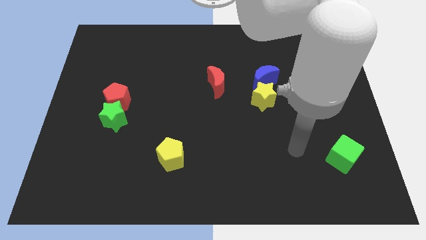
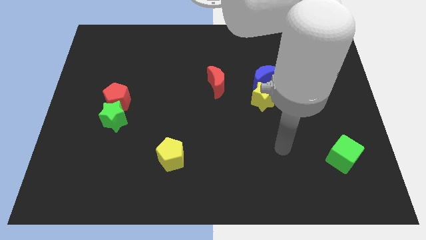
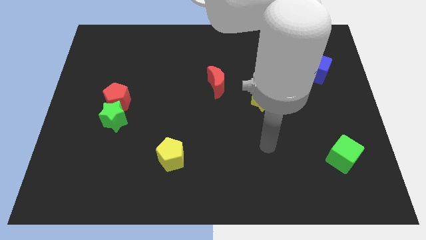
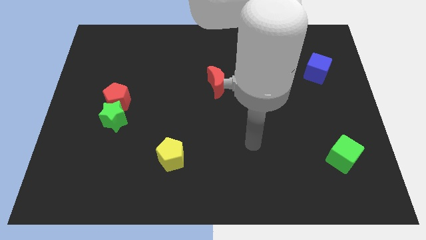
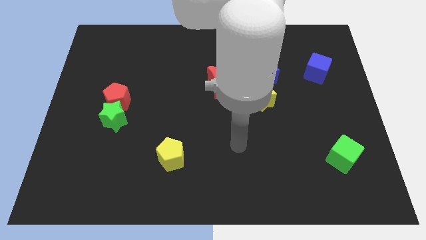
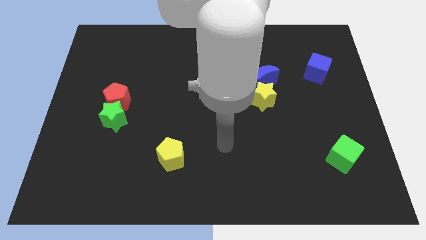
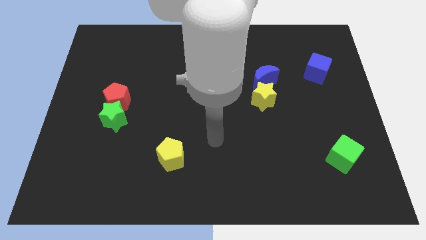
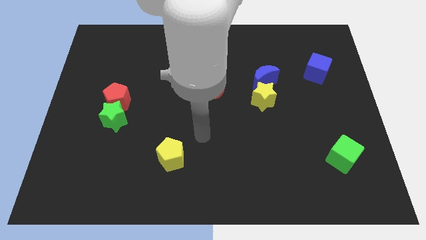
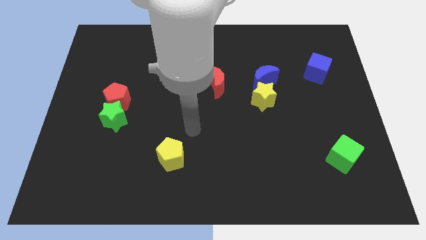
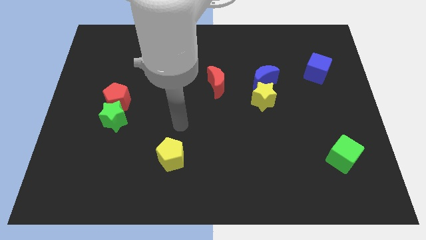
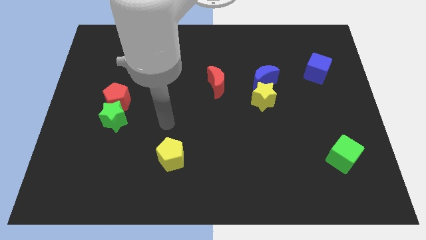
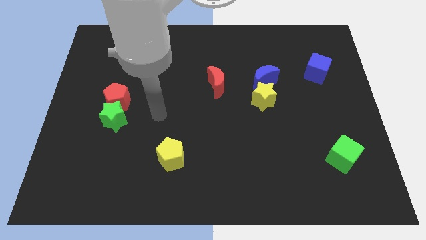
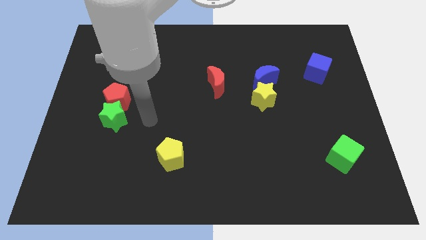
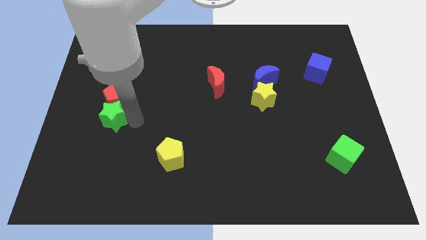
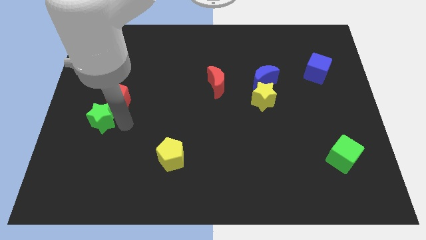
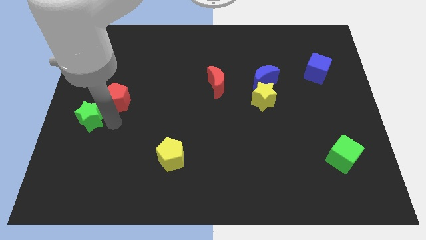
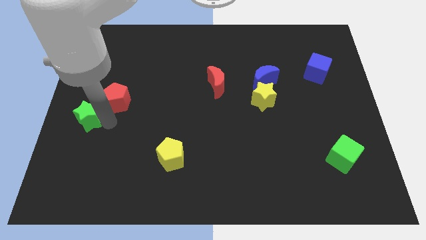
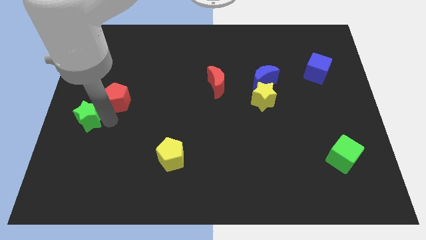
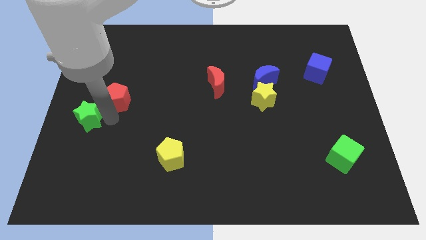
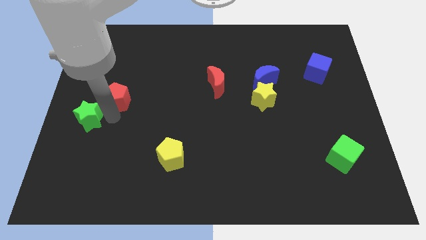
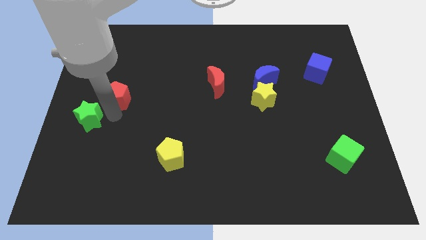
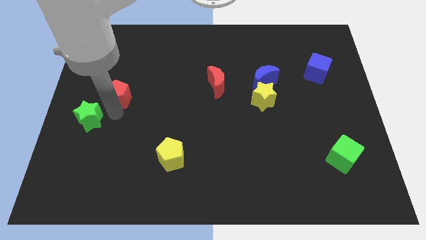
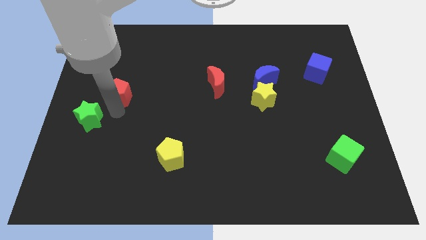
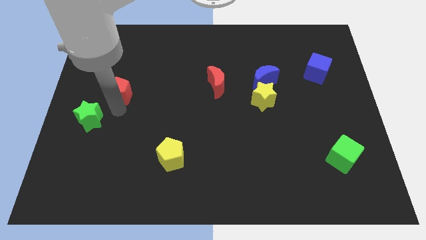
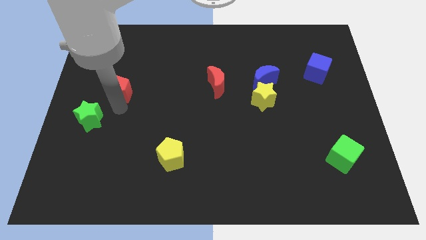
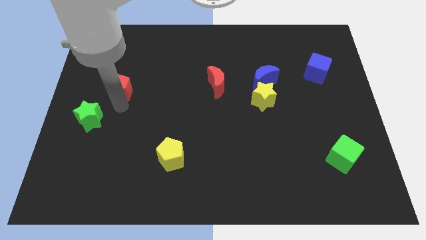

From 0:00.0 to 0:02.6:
move the red pentagon away from the green star

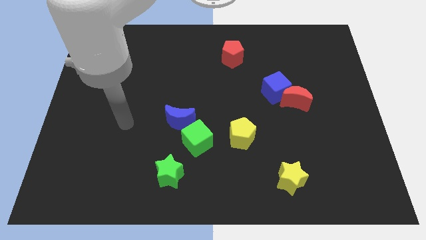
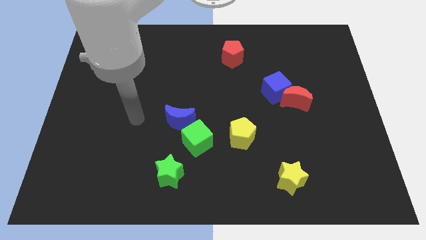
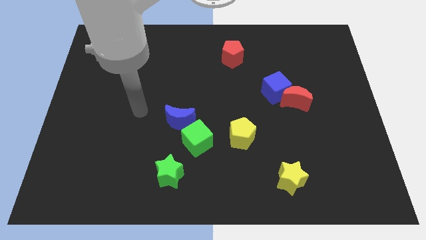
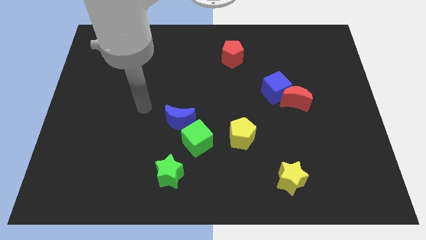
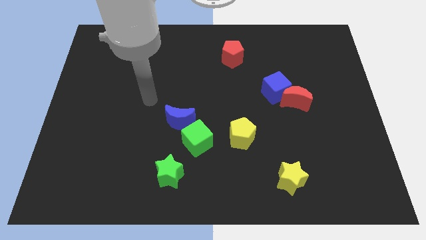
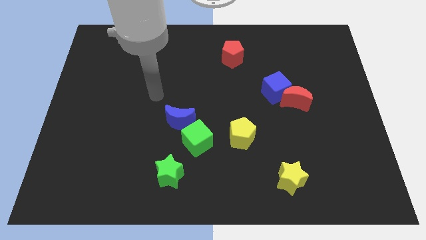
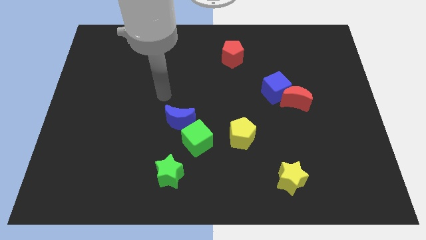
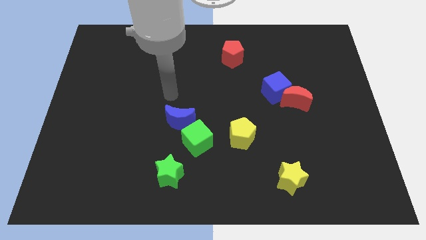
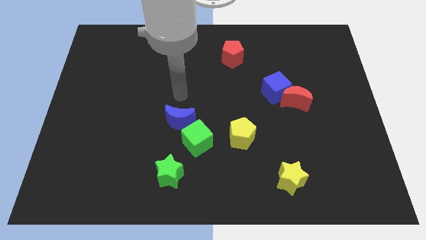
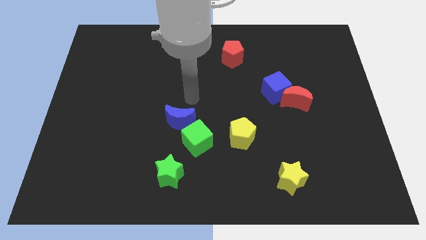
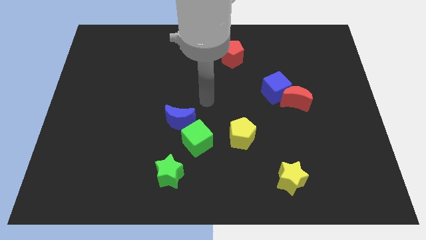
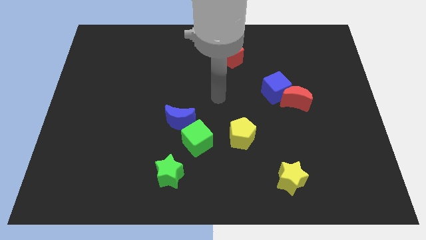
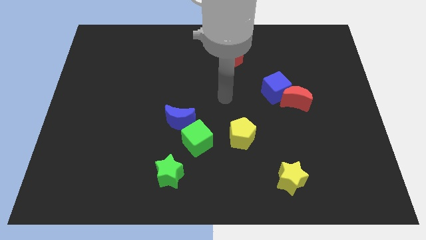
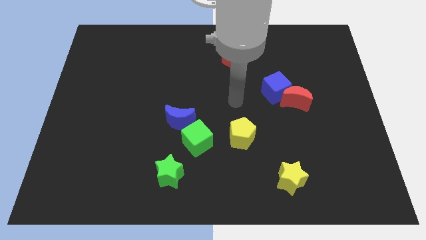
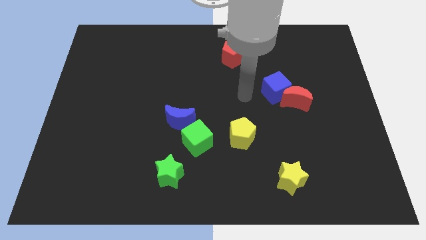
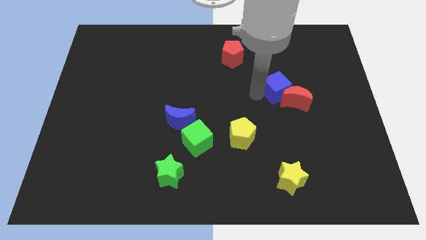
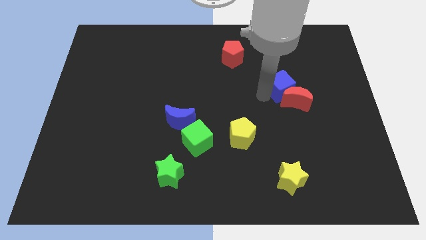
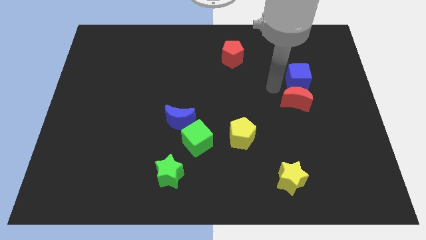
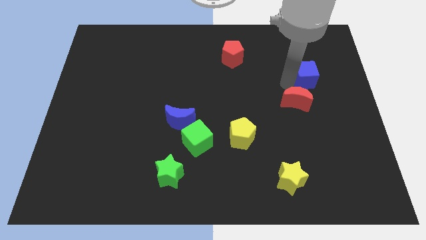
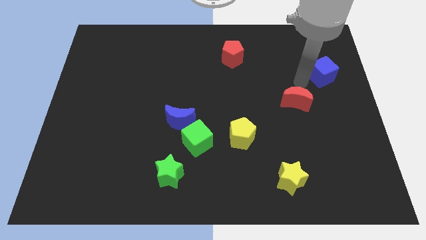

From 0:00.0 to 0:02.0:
separate the red moon from the blue cube

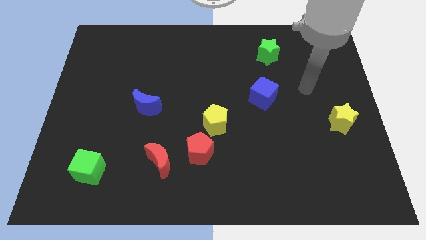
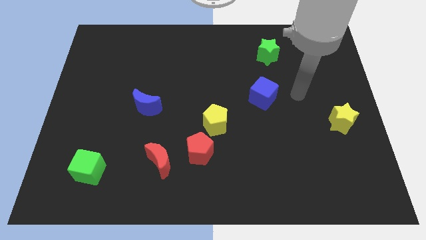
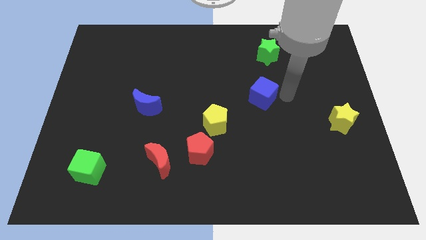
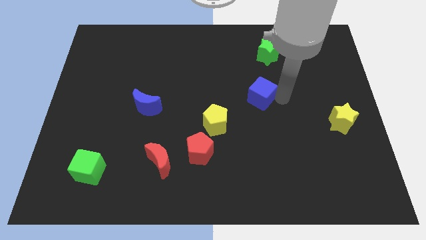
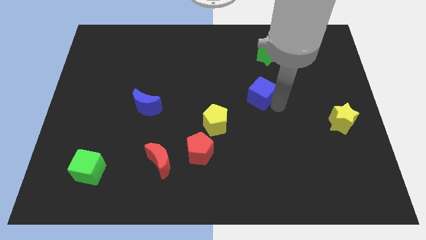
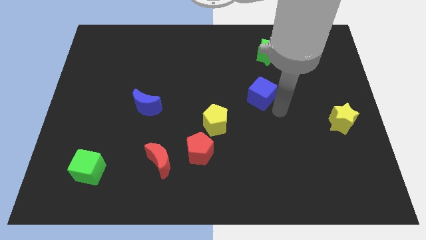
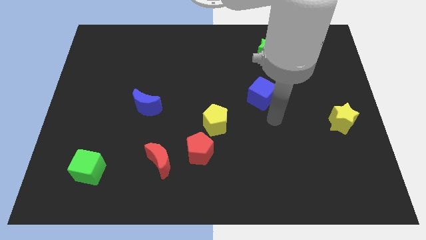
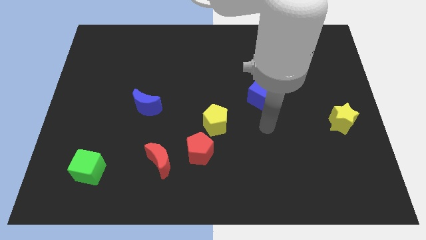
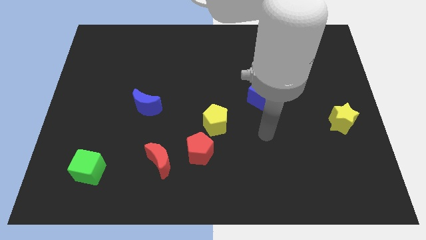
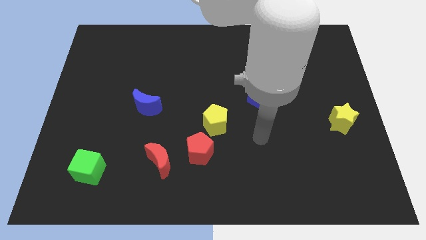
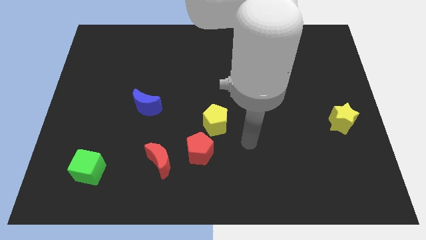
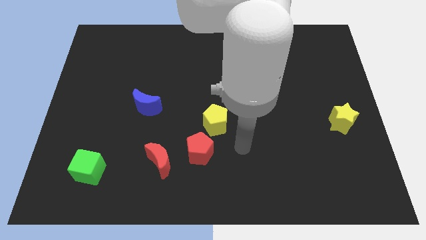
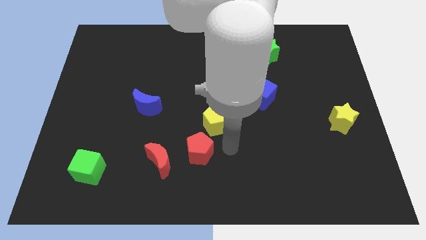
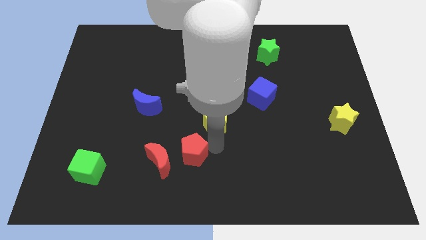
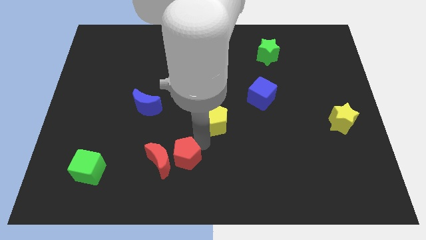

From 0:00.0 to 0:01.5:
separate the yellow pentagon from the red pentagon

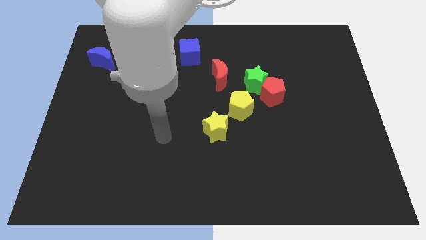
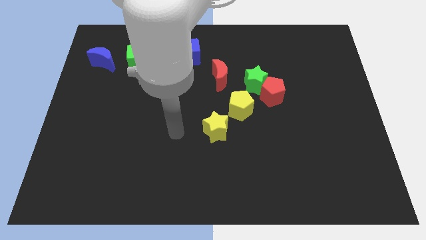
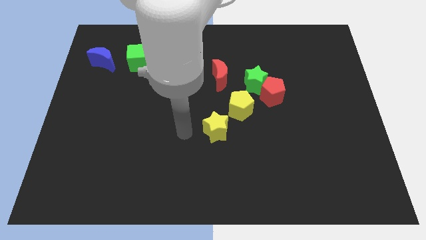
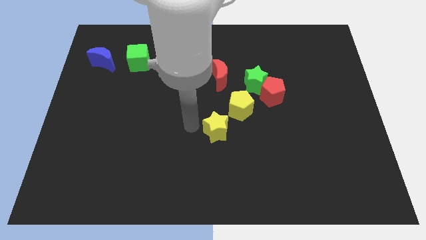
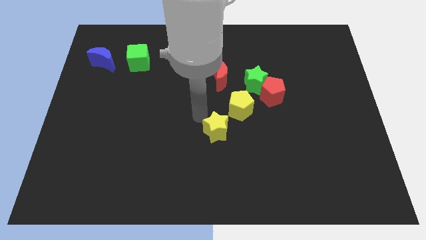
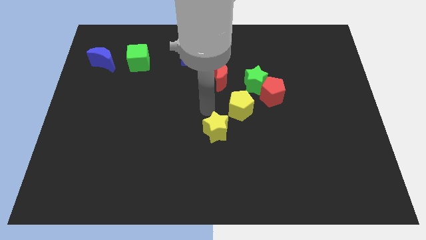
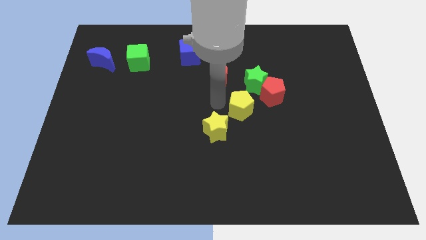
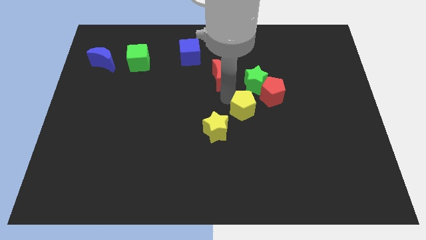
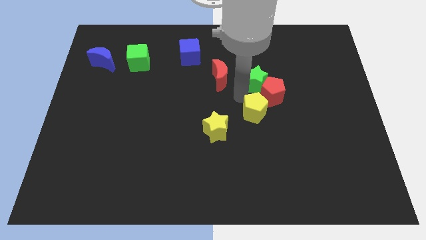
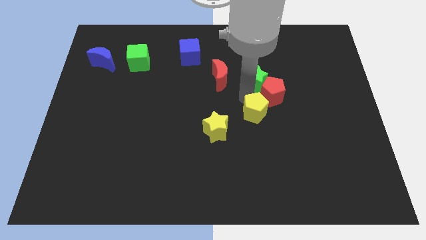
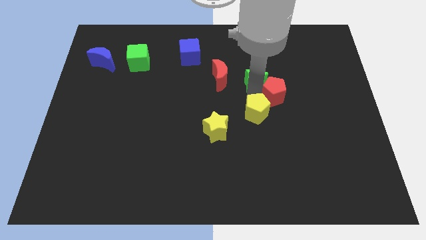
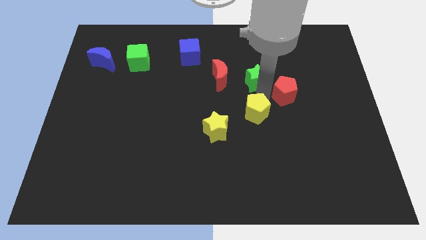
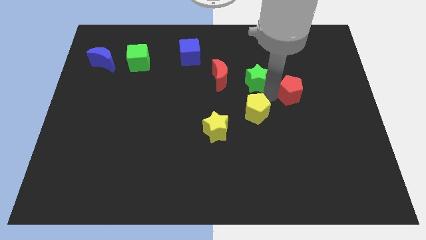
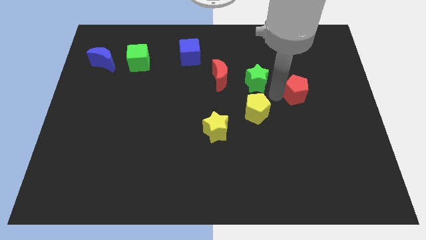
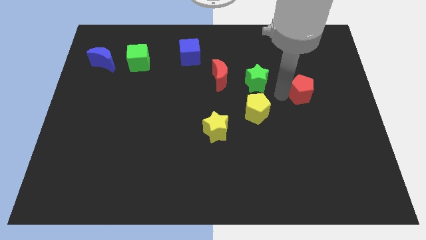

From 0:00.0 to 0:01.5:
move the red pentagon away from the green star and yellow pentagon

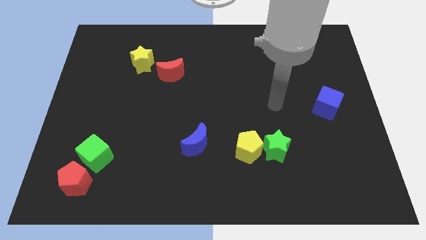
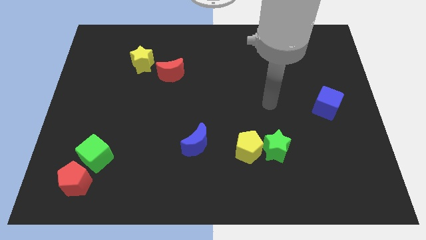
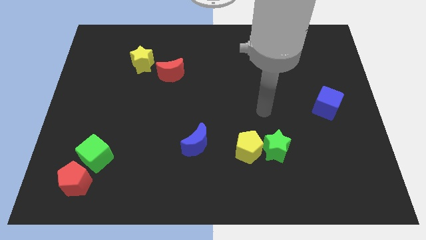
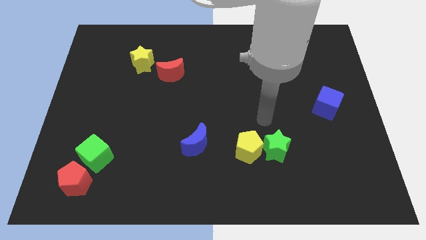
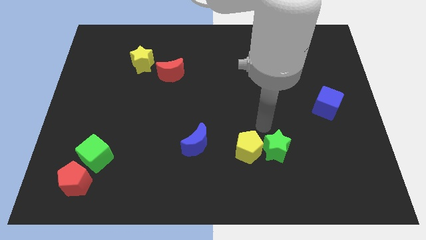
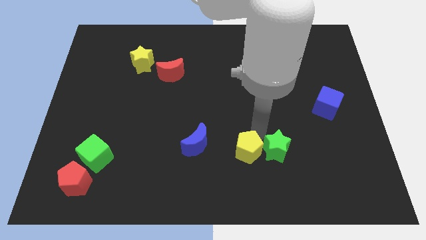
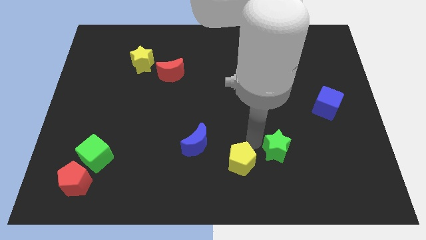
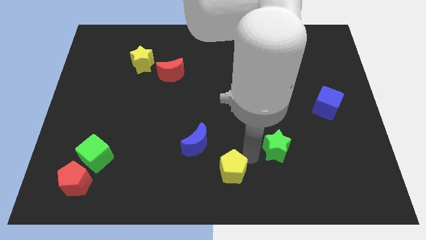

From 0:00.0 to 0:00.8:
separate the green star from the yellow pentagon

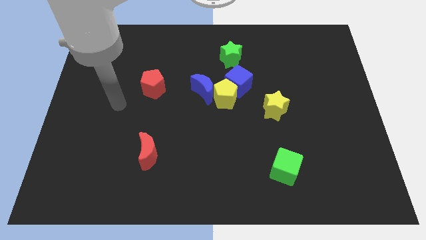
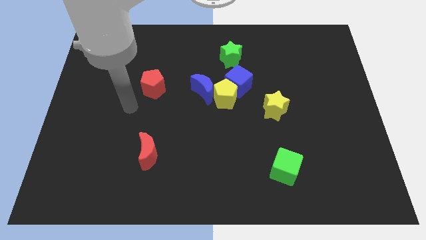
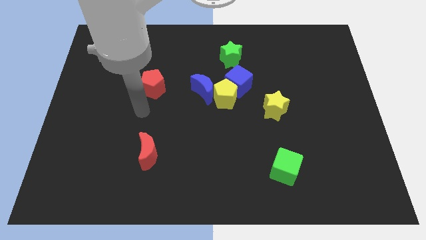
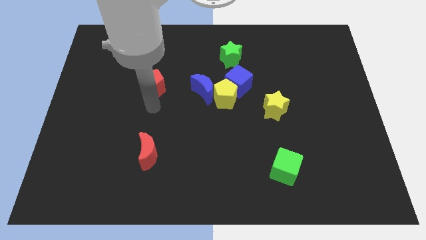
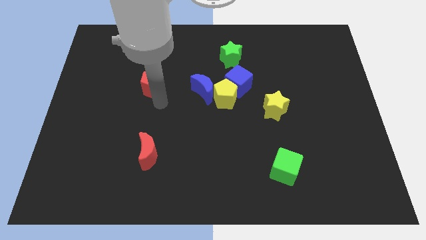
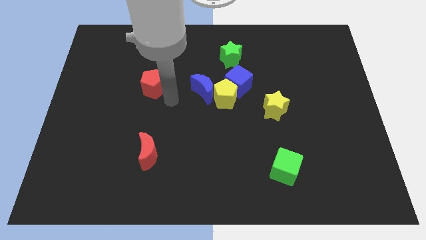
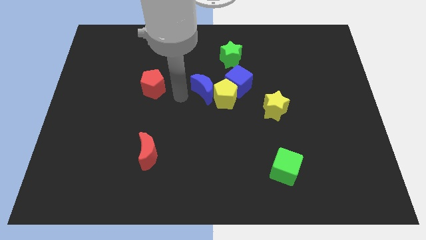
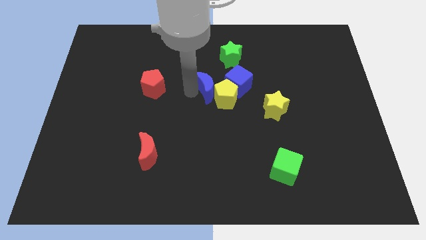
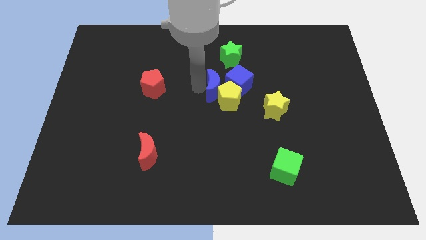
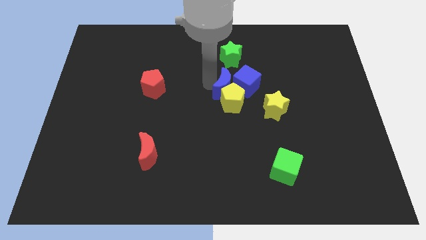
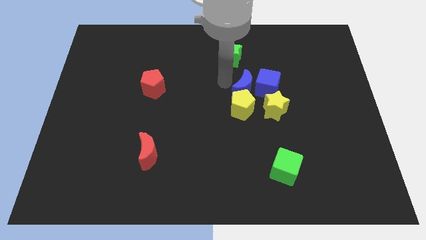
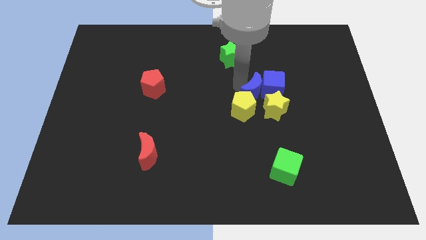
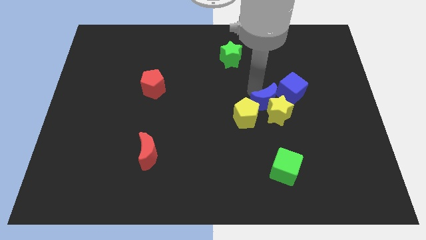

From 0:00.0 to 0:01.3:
pull the yellow pentagon apart from the blue moon and blue cube
